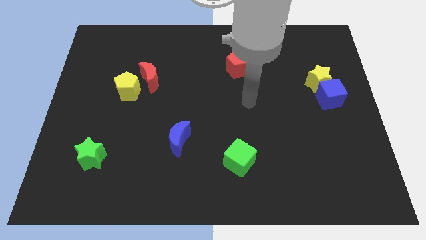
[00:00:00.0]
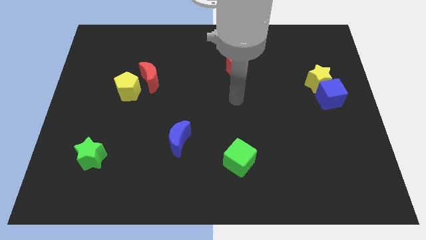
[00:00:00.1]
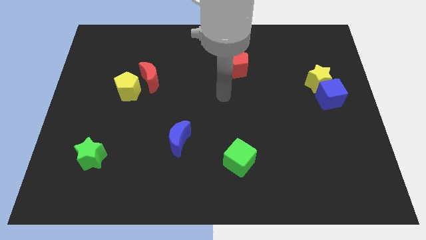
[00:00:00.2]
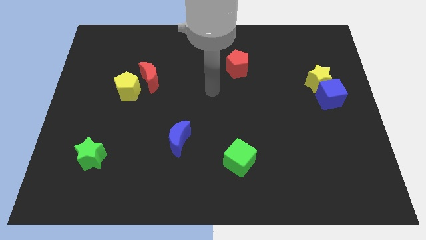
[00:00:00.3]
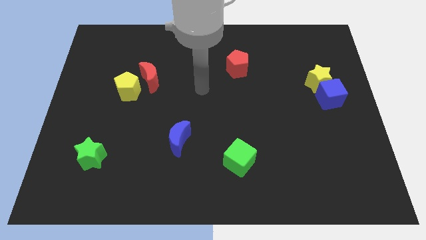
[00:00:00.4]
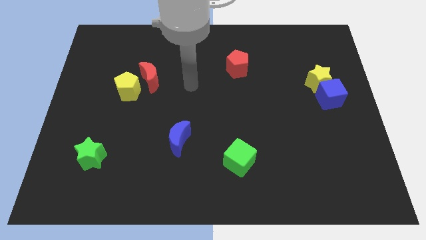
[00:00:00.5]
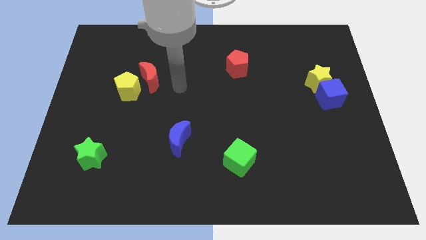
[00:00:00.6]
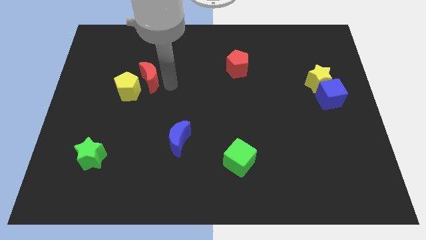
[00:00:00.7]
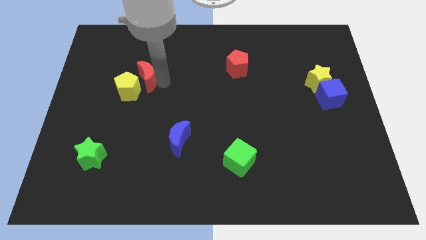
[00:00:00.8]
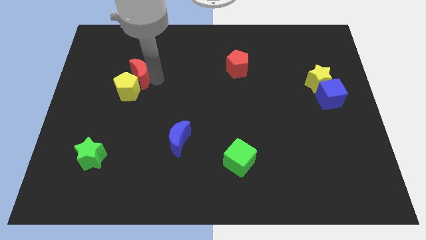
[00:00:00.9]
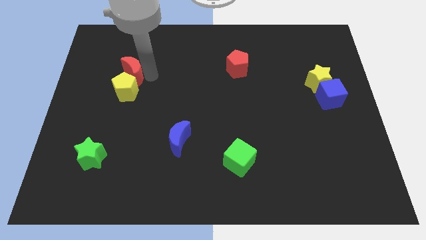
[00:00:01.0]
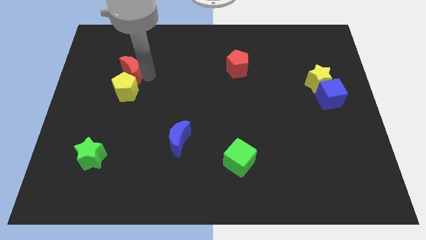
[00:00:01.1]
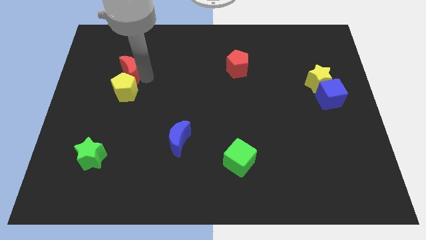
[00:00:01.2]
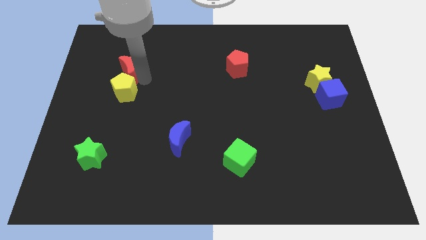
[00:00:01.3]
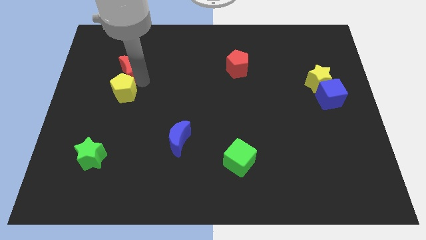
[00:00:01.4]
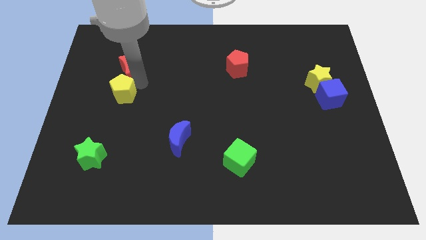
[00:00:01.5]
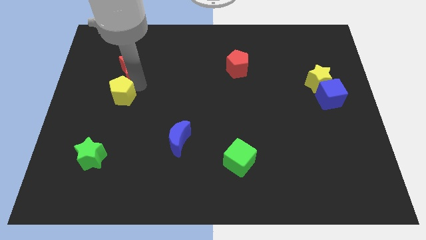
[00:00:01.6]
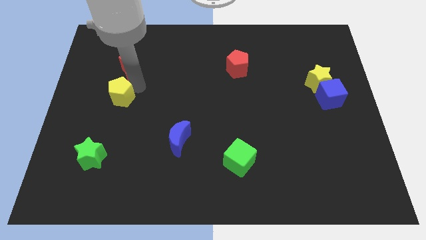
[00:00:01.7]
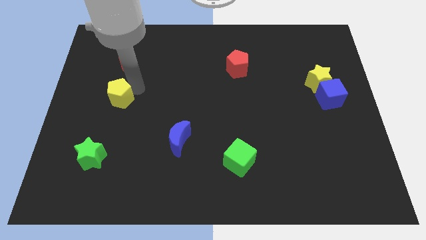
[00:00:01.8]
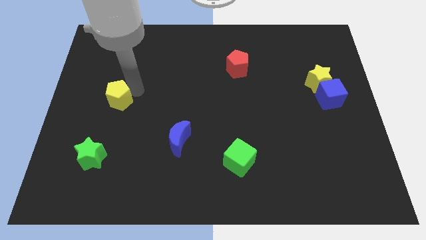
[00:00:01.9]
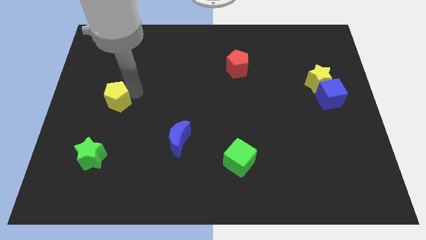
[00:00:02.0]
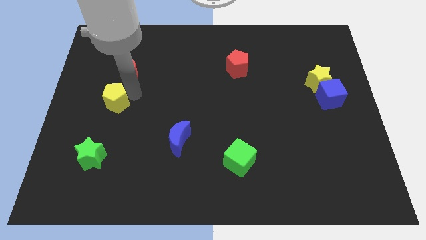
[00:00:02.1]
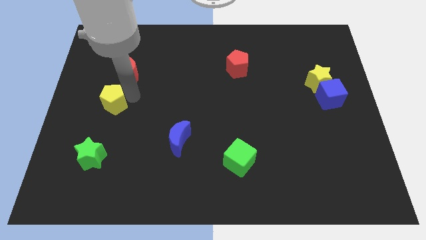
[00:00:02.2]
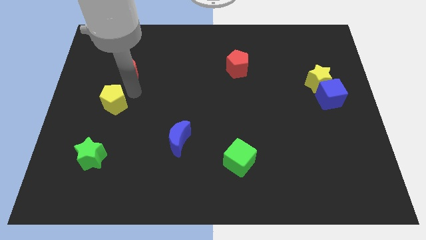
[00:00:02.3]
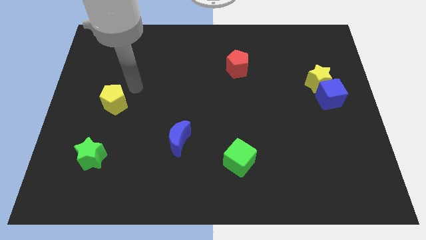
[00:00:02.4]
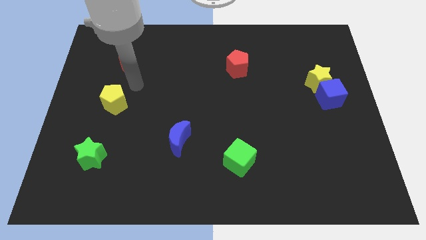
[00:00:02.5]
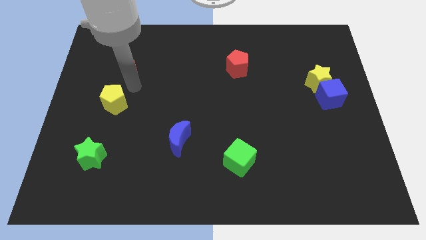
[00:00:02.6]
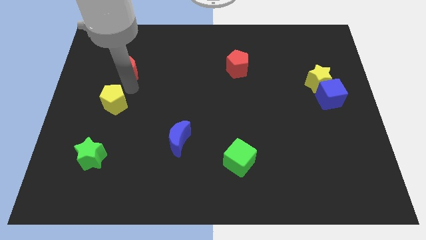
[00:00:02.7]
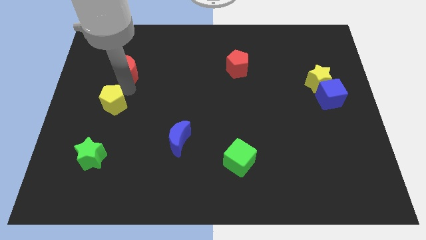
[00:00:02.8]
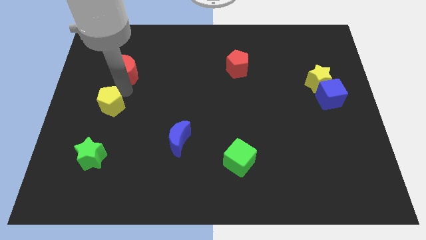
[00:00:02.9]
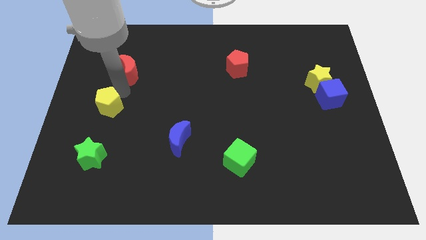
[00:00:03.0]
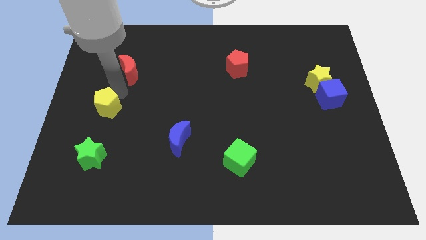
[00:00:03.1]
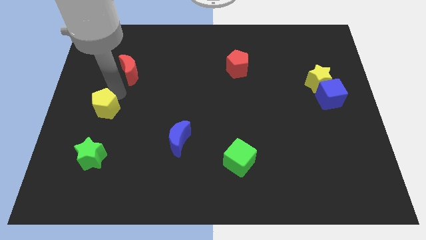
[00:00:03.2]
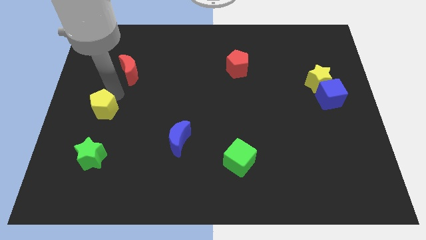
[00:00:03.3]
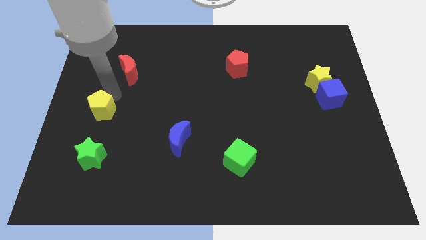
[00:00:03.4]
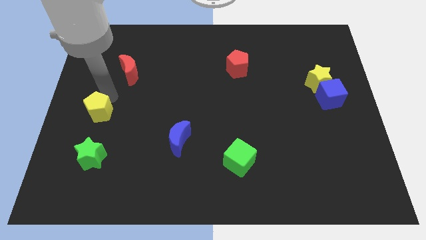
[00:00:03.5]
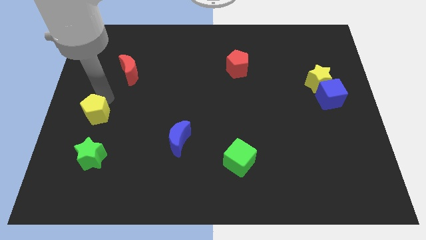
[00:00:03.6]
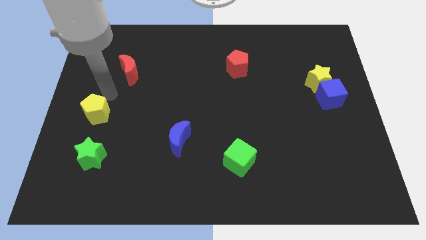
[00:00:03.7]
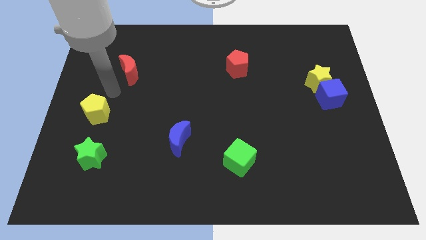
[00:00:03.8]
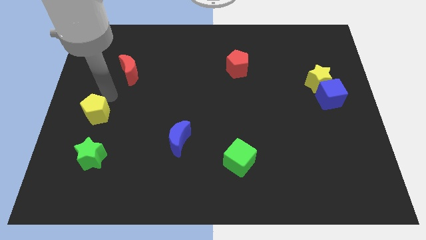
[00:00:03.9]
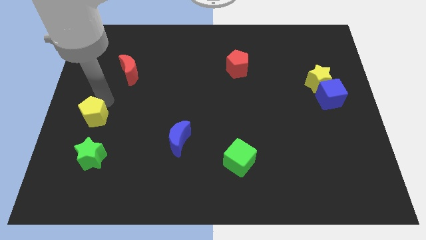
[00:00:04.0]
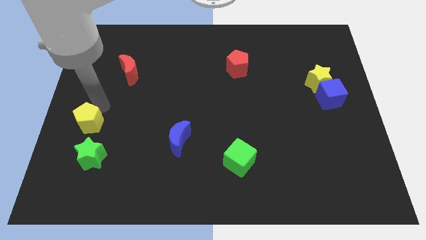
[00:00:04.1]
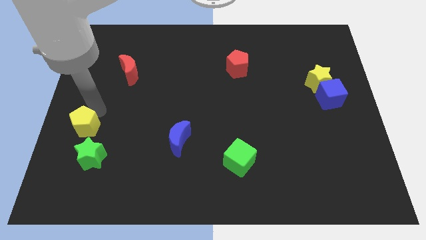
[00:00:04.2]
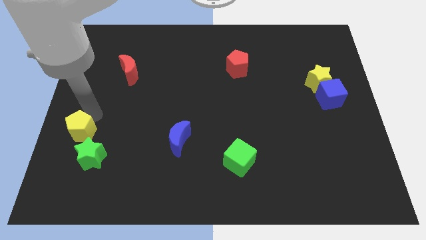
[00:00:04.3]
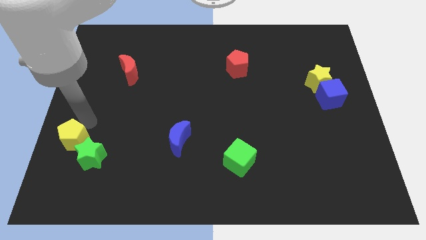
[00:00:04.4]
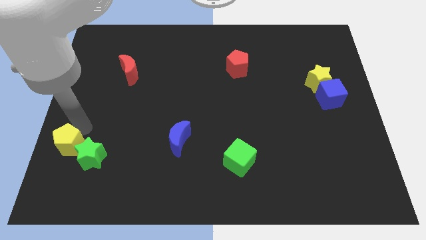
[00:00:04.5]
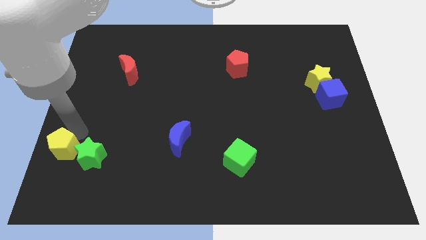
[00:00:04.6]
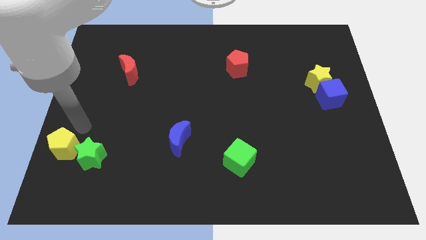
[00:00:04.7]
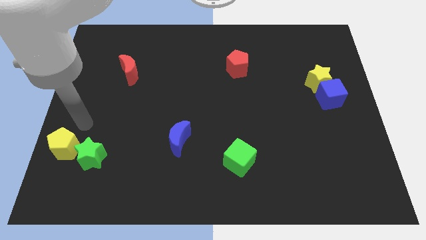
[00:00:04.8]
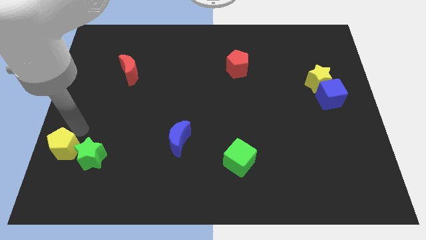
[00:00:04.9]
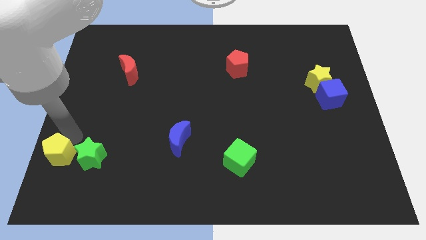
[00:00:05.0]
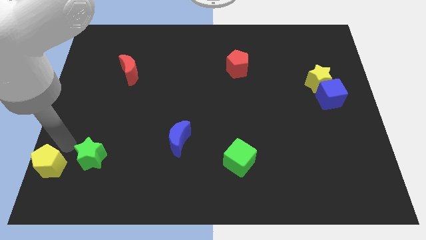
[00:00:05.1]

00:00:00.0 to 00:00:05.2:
push the yellow pentagon to the lower left corner

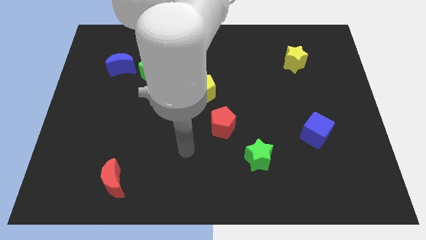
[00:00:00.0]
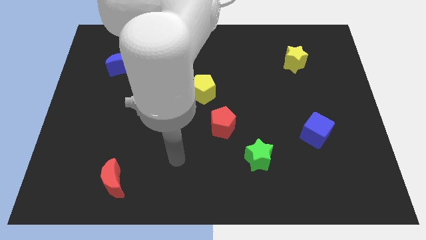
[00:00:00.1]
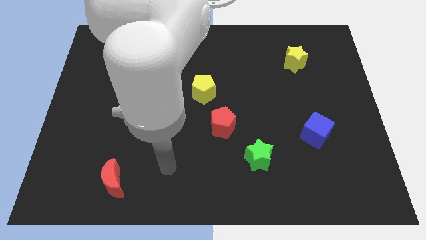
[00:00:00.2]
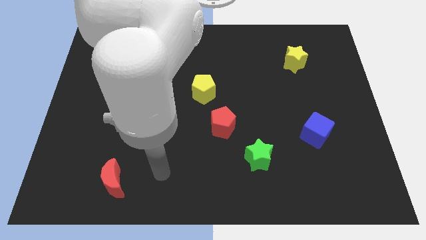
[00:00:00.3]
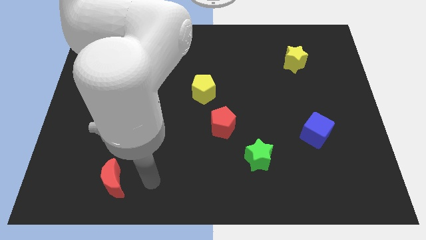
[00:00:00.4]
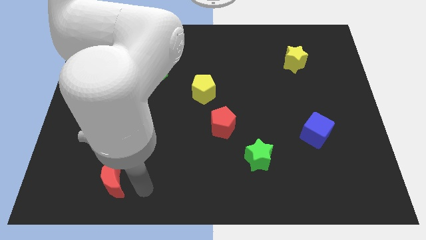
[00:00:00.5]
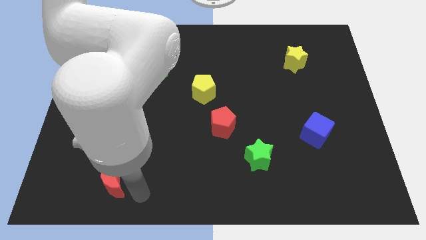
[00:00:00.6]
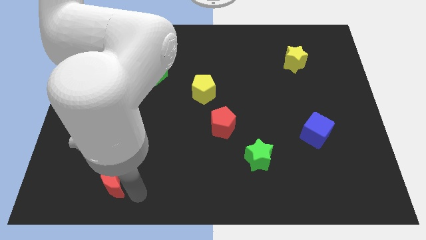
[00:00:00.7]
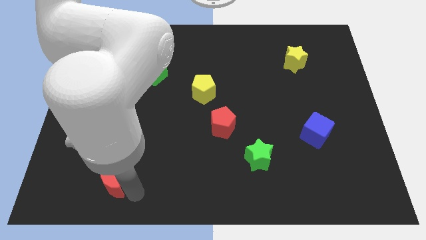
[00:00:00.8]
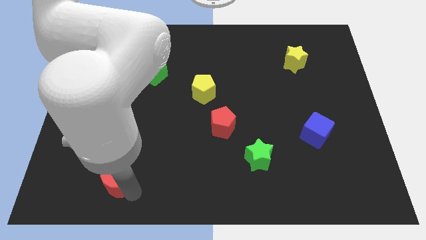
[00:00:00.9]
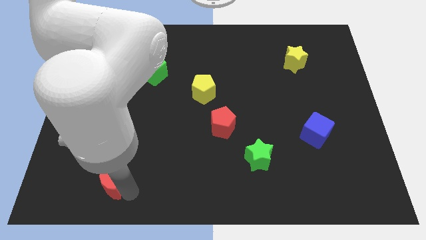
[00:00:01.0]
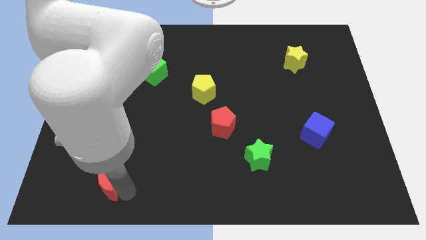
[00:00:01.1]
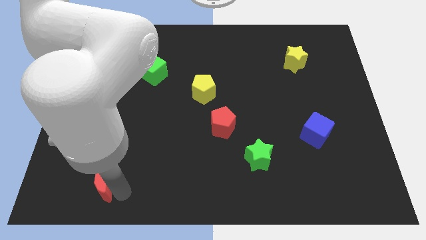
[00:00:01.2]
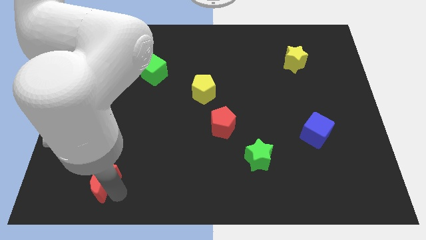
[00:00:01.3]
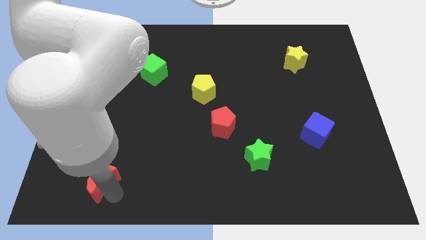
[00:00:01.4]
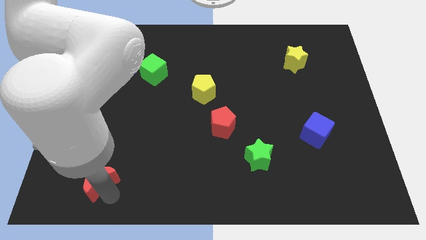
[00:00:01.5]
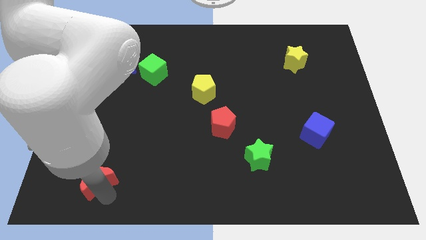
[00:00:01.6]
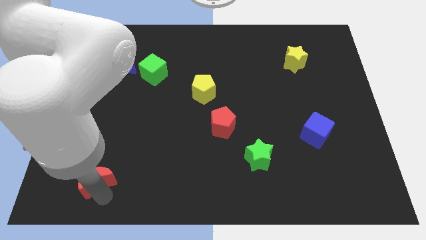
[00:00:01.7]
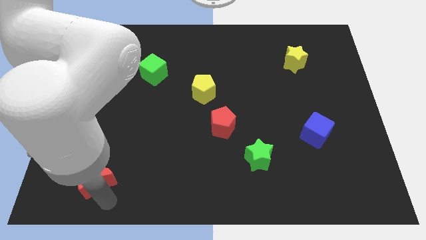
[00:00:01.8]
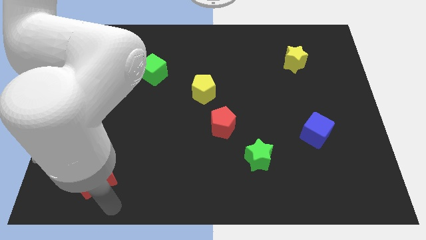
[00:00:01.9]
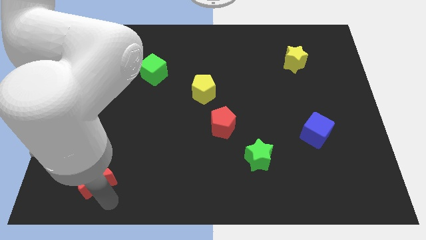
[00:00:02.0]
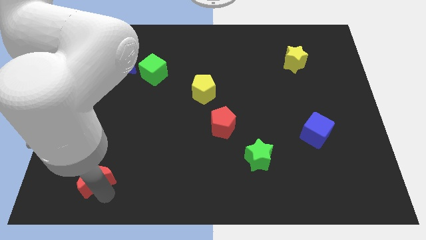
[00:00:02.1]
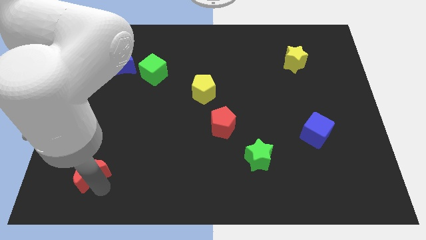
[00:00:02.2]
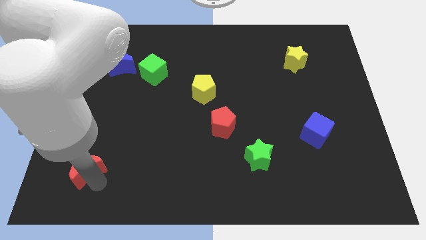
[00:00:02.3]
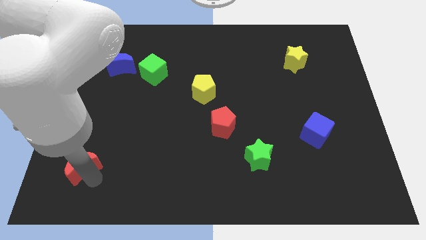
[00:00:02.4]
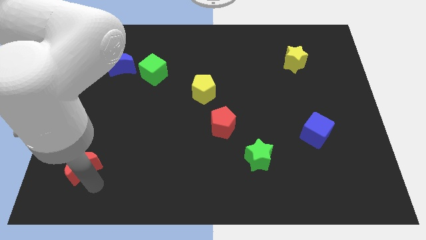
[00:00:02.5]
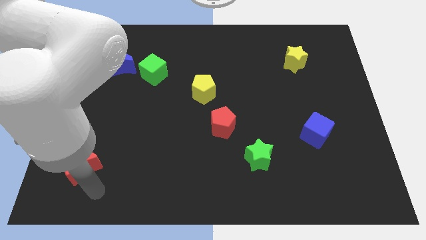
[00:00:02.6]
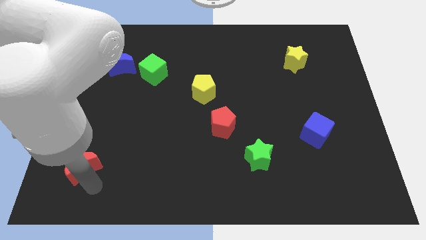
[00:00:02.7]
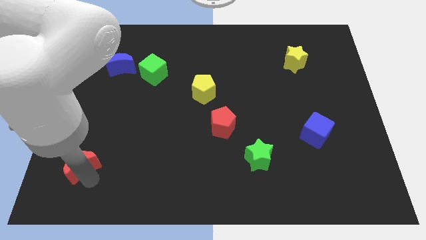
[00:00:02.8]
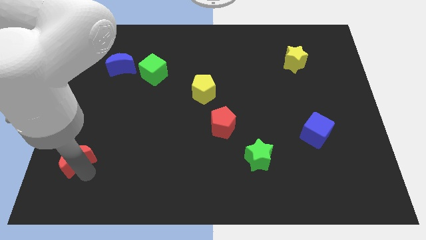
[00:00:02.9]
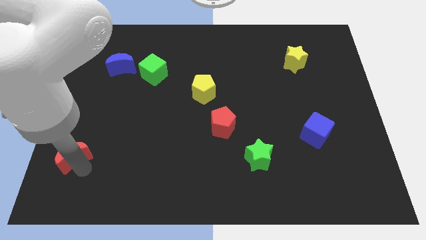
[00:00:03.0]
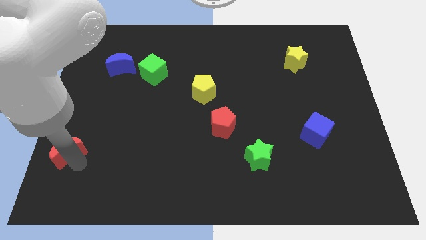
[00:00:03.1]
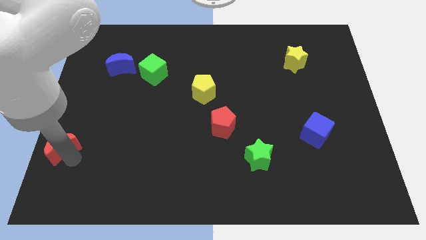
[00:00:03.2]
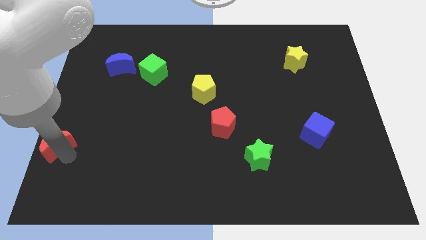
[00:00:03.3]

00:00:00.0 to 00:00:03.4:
move the red moon to the left side of the board
